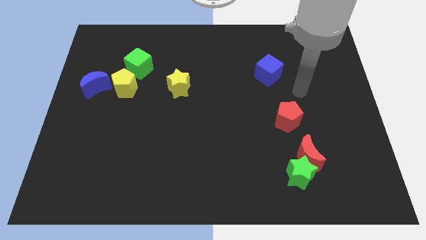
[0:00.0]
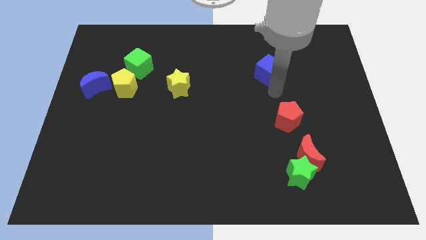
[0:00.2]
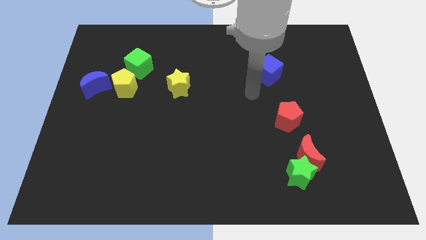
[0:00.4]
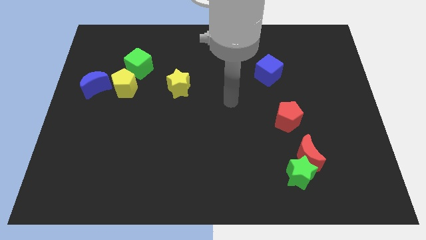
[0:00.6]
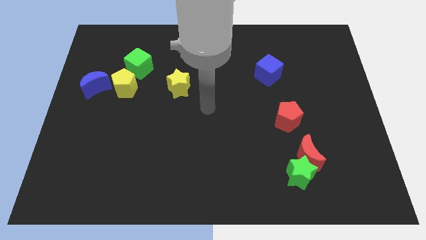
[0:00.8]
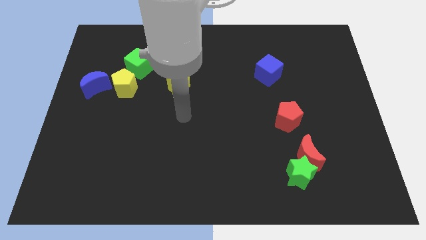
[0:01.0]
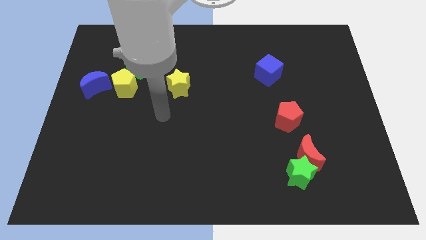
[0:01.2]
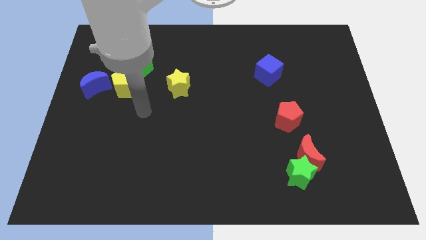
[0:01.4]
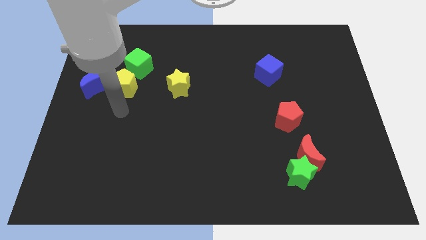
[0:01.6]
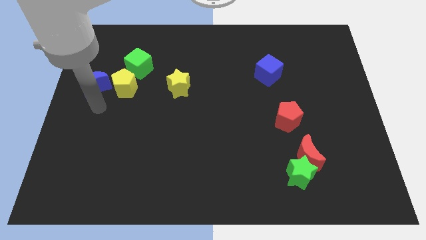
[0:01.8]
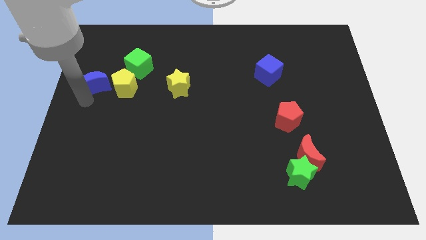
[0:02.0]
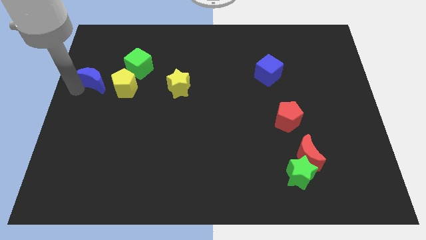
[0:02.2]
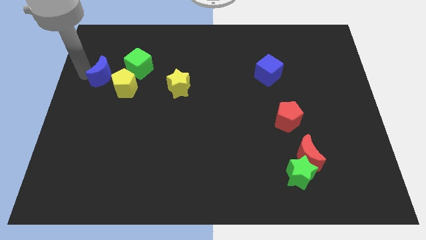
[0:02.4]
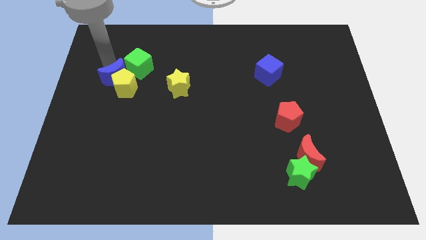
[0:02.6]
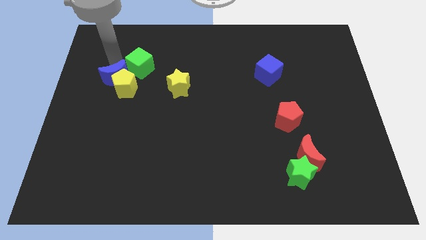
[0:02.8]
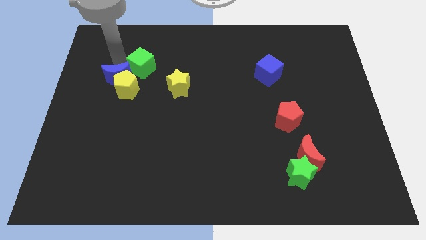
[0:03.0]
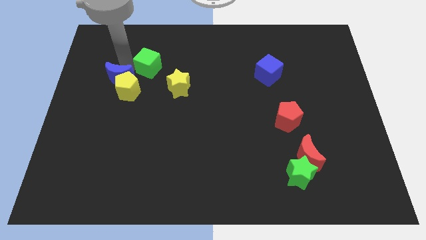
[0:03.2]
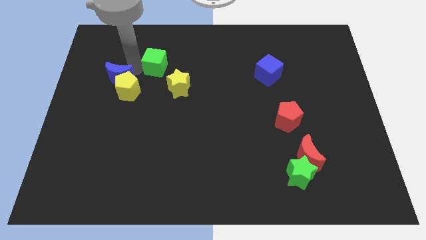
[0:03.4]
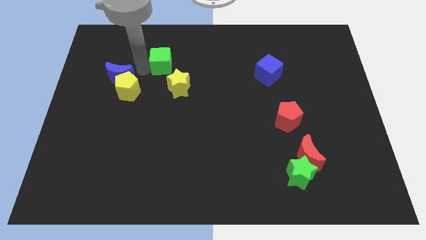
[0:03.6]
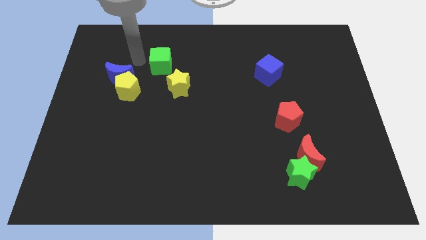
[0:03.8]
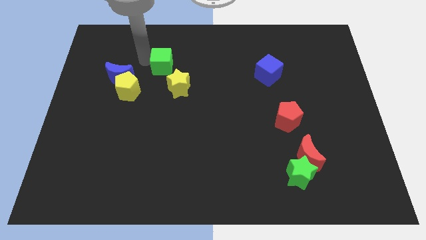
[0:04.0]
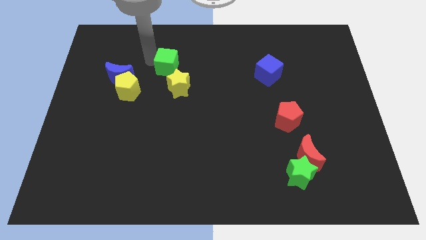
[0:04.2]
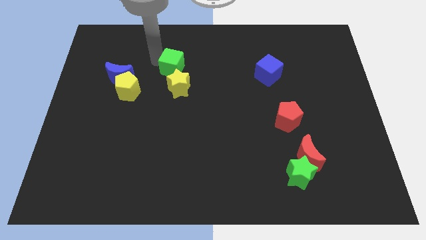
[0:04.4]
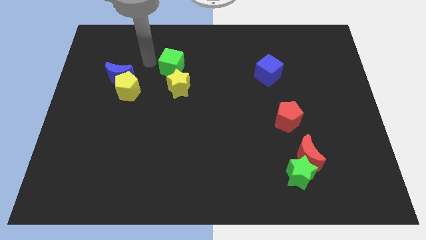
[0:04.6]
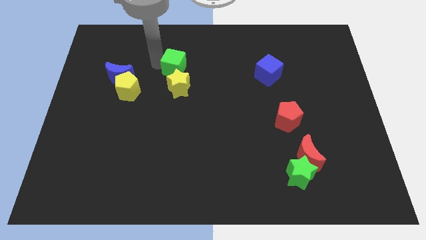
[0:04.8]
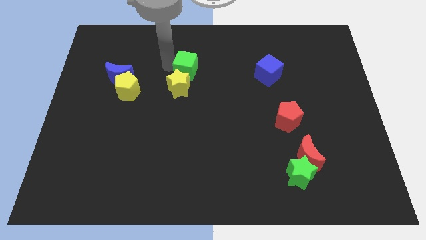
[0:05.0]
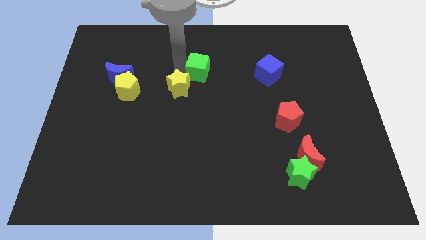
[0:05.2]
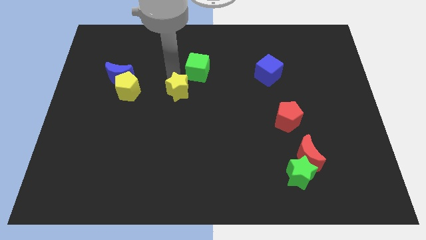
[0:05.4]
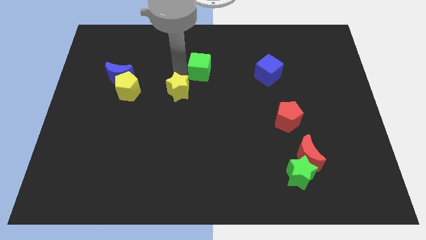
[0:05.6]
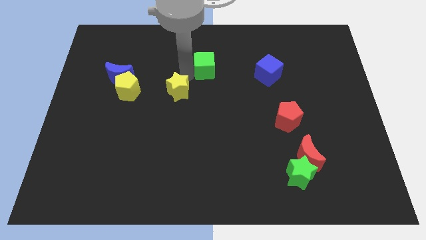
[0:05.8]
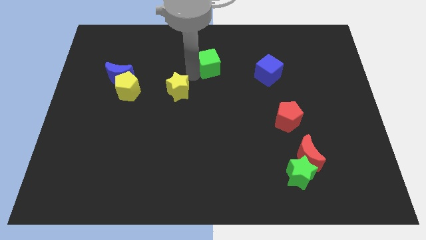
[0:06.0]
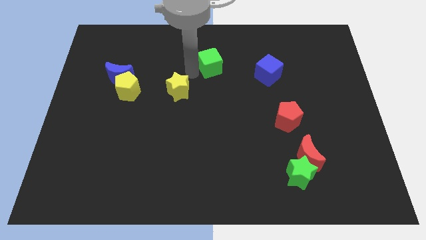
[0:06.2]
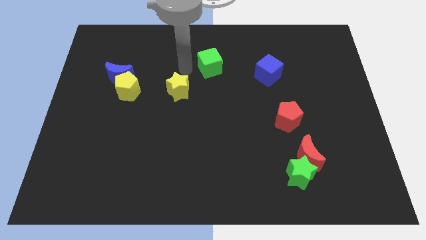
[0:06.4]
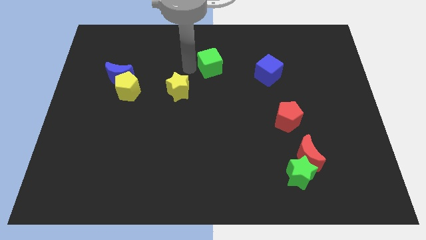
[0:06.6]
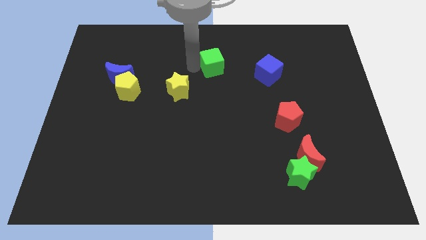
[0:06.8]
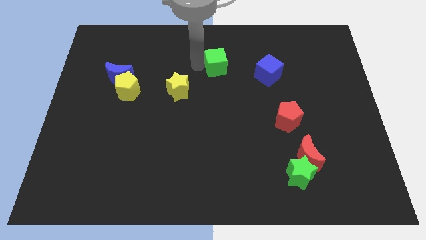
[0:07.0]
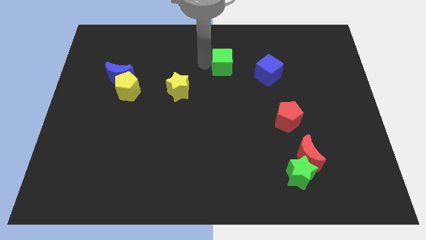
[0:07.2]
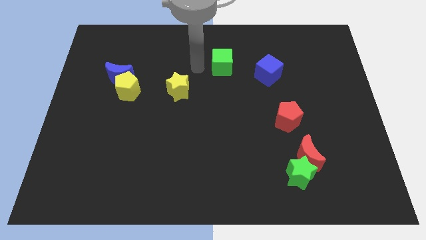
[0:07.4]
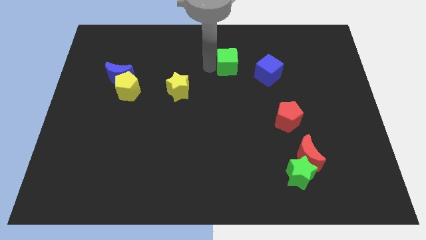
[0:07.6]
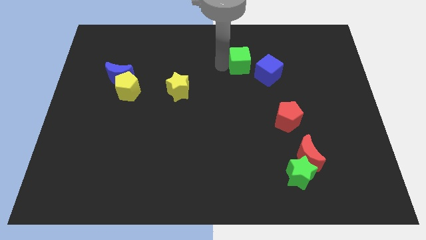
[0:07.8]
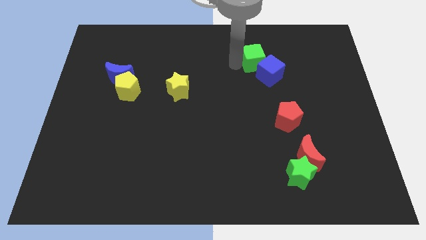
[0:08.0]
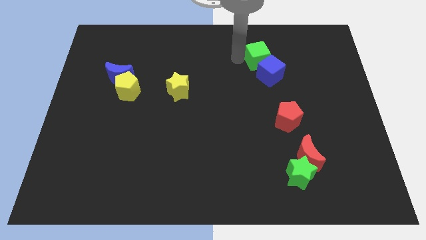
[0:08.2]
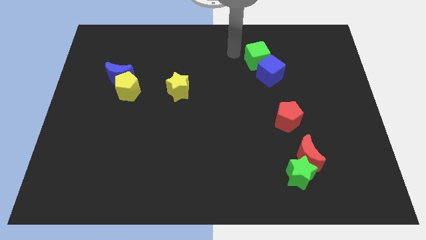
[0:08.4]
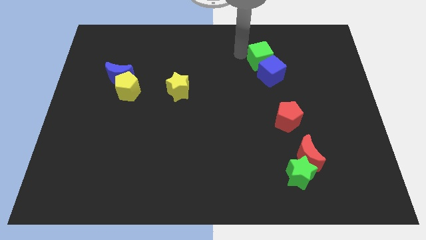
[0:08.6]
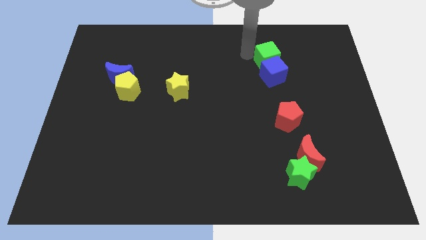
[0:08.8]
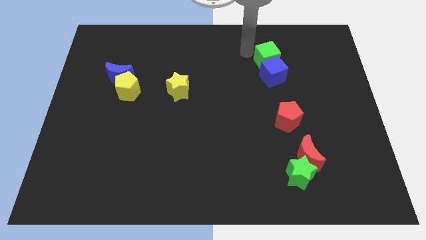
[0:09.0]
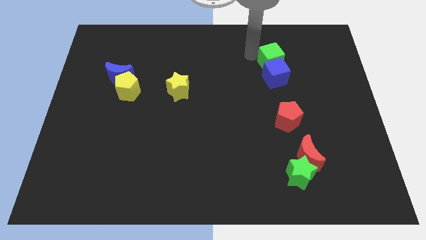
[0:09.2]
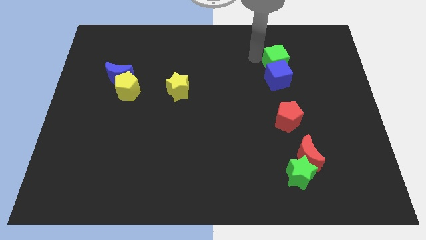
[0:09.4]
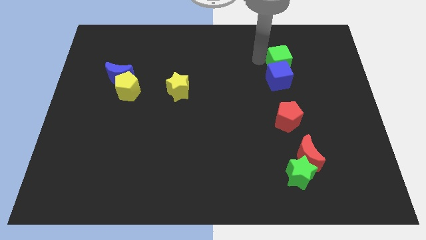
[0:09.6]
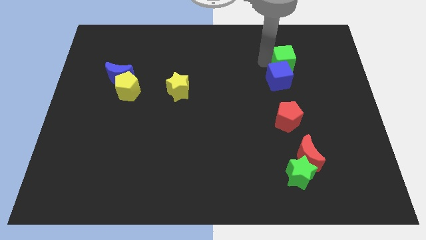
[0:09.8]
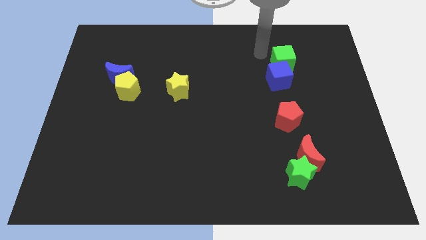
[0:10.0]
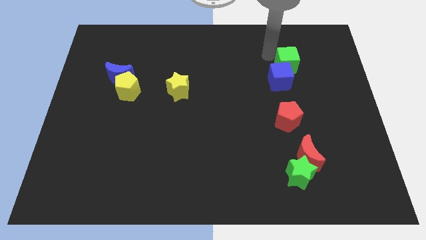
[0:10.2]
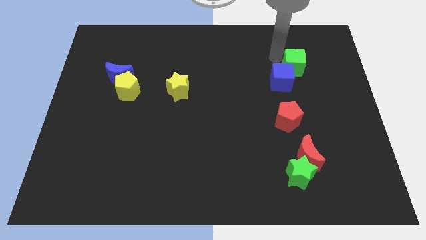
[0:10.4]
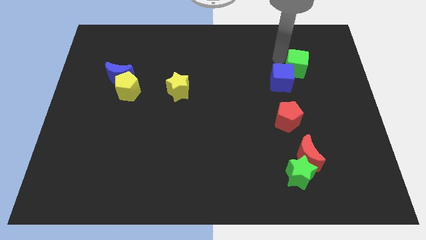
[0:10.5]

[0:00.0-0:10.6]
move the green cube right of the blue cube

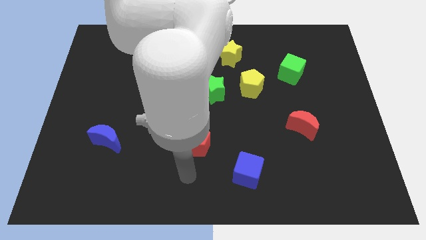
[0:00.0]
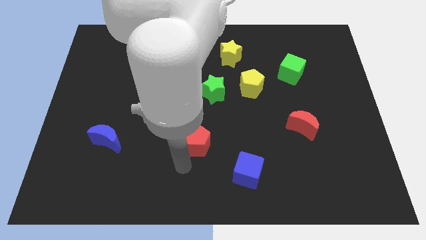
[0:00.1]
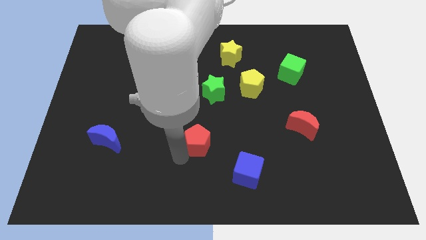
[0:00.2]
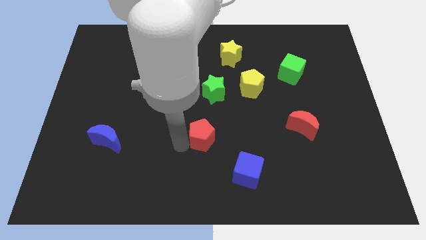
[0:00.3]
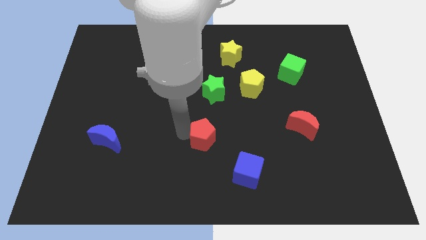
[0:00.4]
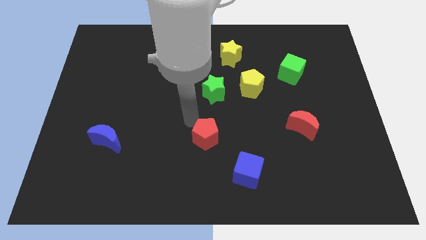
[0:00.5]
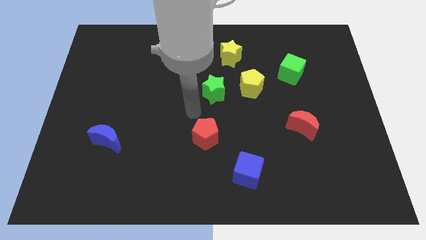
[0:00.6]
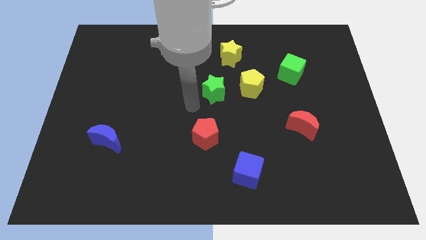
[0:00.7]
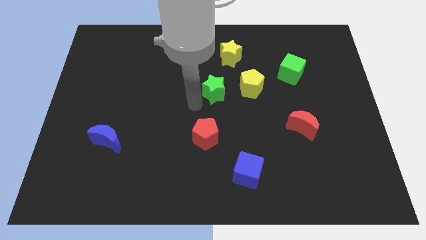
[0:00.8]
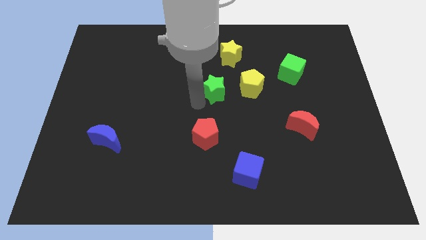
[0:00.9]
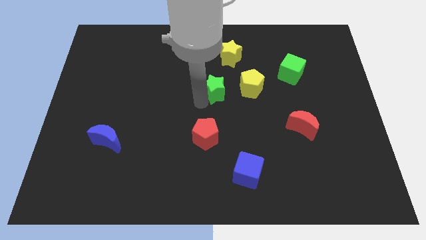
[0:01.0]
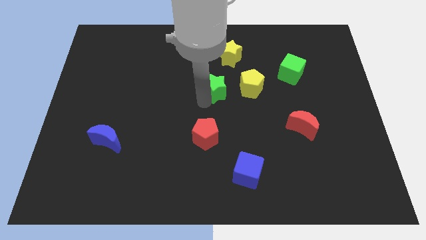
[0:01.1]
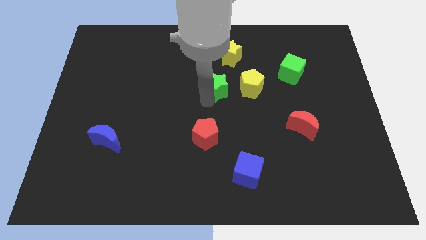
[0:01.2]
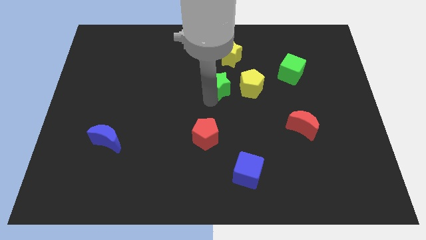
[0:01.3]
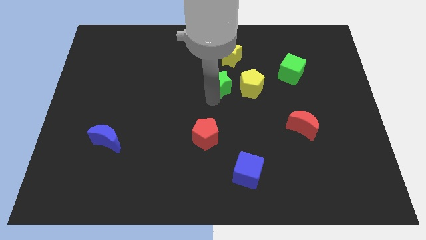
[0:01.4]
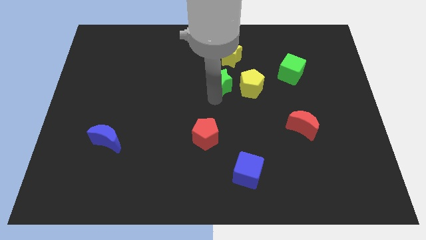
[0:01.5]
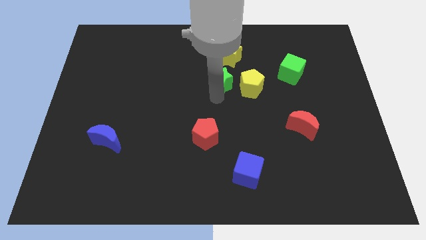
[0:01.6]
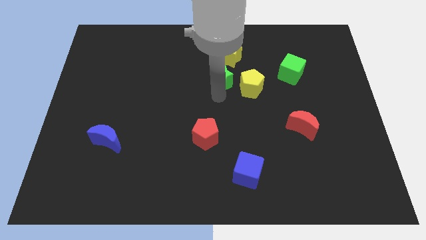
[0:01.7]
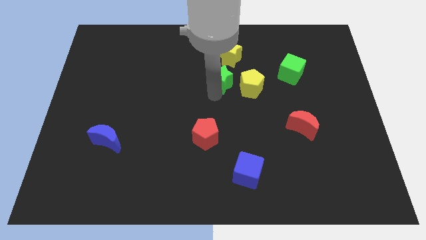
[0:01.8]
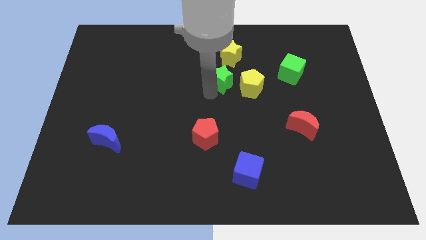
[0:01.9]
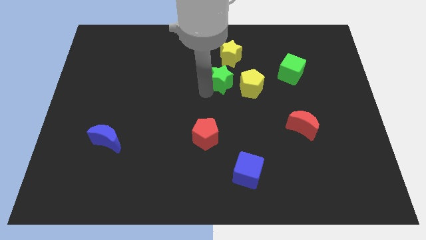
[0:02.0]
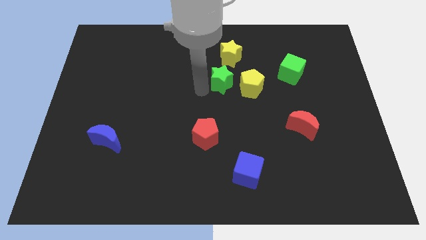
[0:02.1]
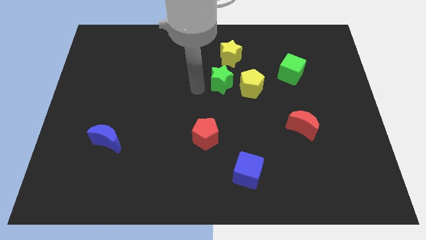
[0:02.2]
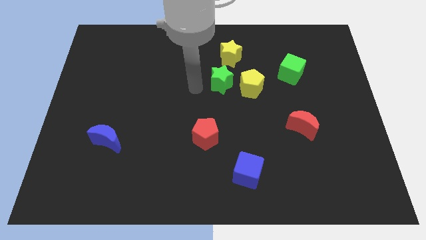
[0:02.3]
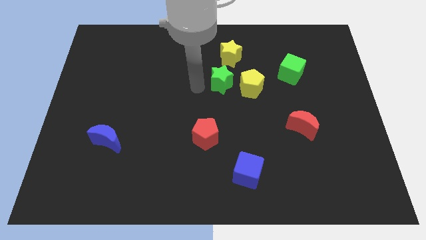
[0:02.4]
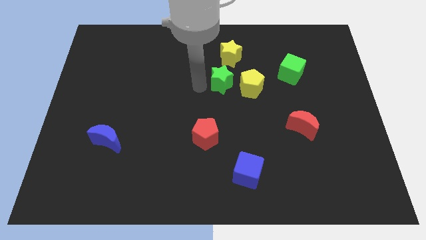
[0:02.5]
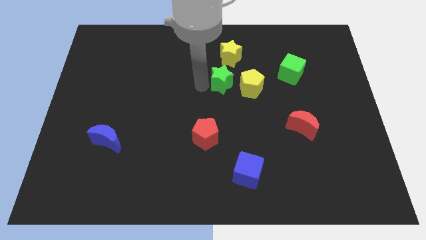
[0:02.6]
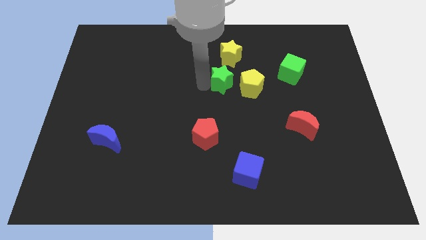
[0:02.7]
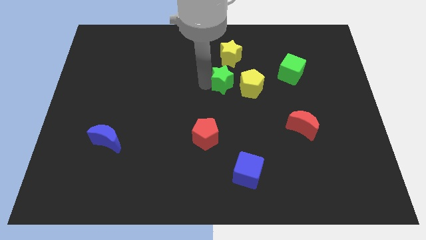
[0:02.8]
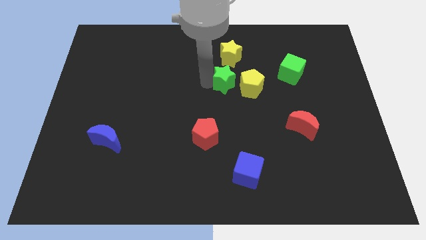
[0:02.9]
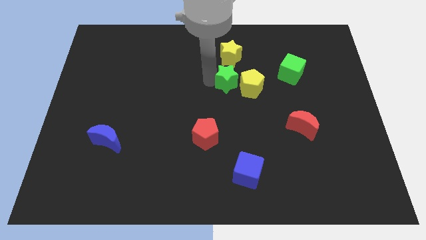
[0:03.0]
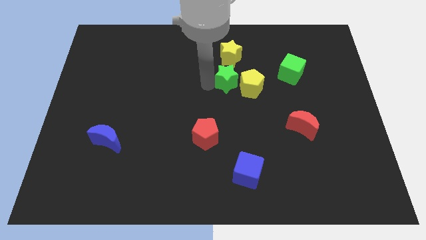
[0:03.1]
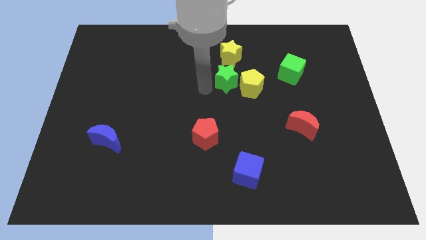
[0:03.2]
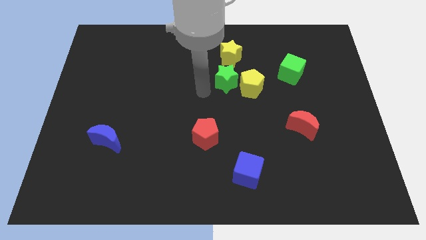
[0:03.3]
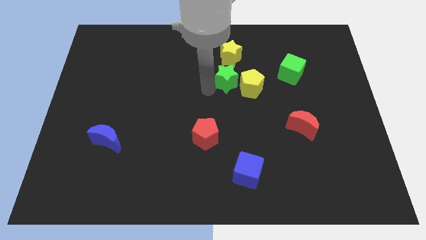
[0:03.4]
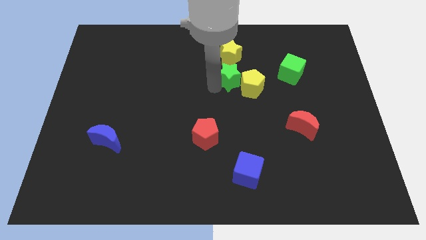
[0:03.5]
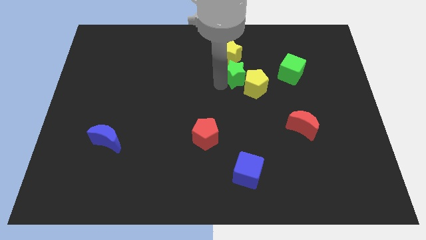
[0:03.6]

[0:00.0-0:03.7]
put the green star to the bottom right side of the yellow star
